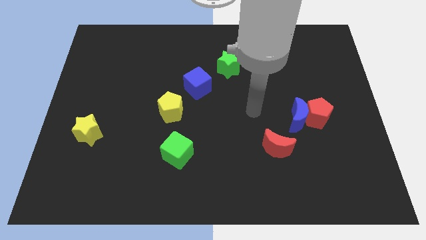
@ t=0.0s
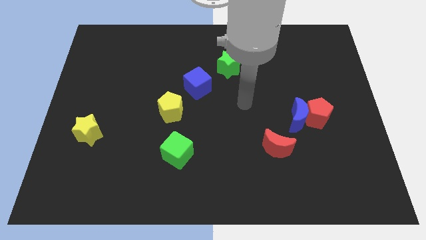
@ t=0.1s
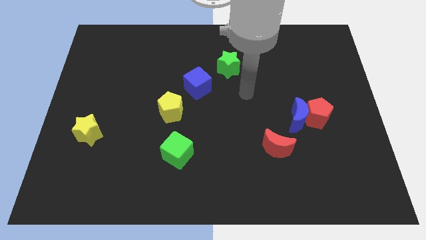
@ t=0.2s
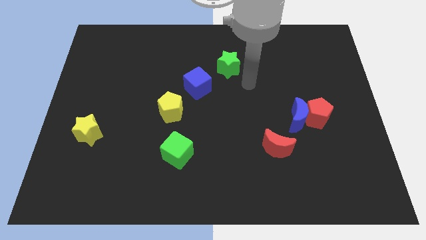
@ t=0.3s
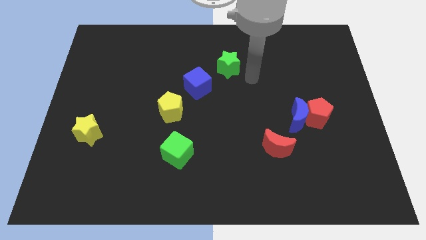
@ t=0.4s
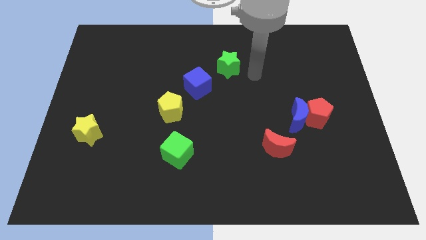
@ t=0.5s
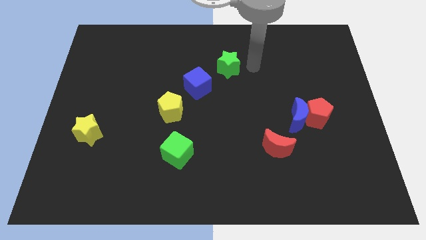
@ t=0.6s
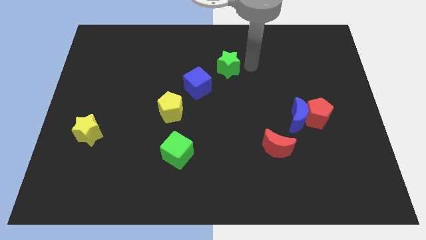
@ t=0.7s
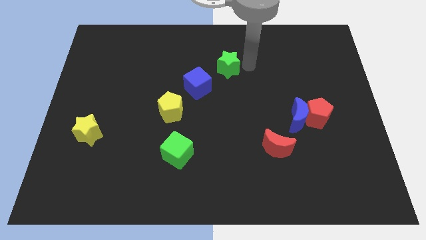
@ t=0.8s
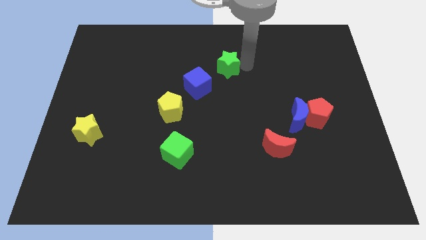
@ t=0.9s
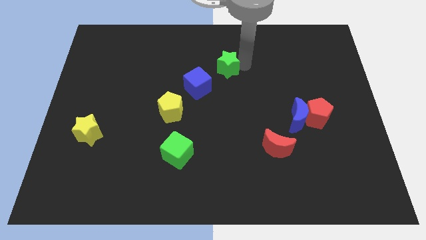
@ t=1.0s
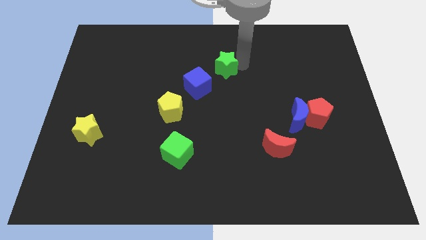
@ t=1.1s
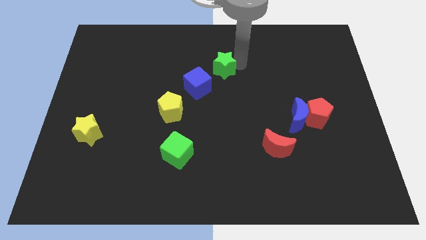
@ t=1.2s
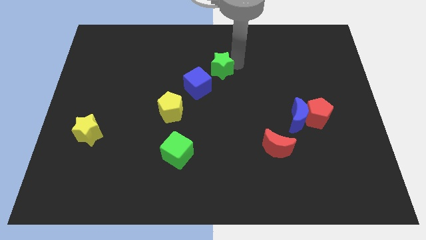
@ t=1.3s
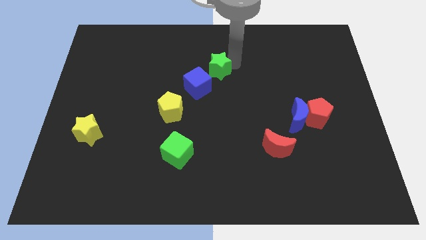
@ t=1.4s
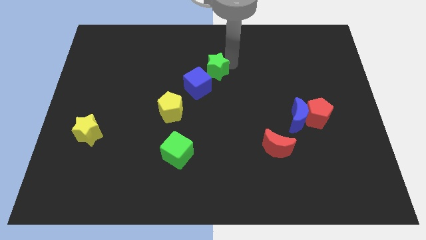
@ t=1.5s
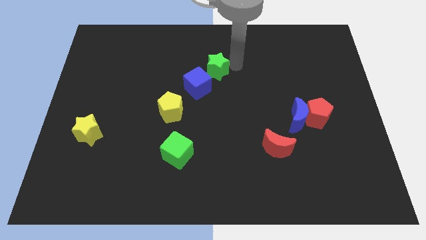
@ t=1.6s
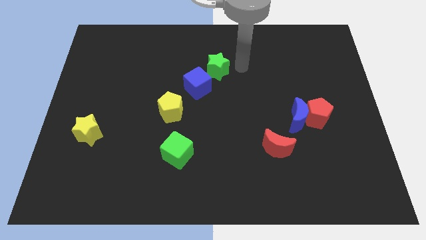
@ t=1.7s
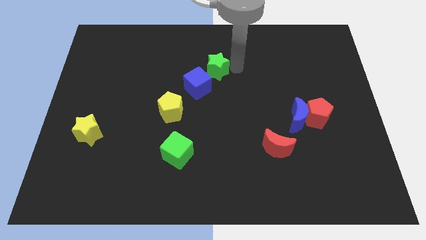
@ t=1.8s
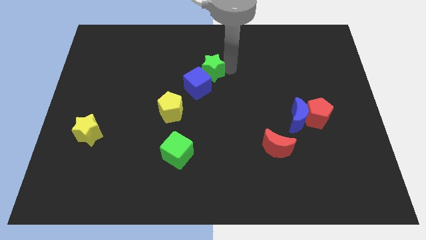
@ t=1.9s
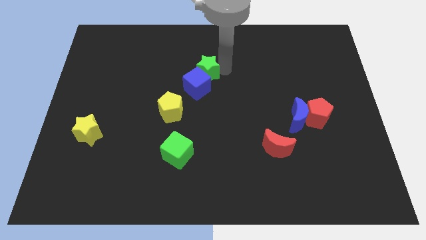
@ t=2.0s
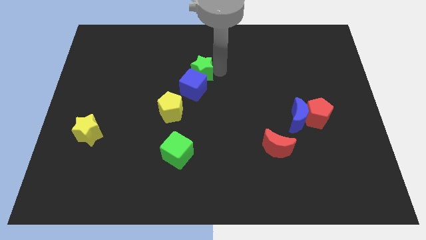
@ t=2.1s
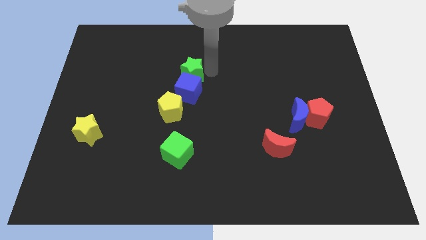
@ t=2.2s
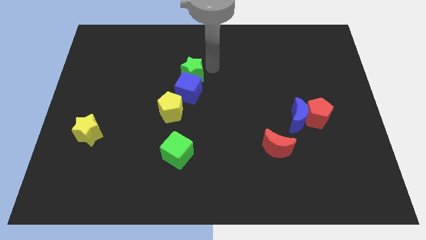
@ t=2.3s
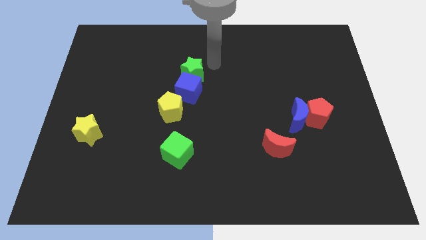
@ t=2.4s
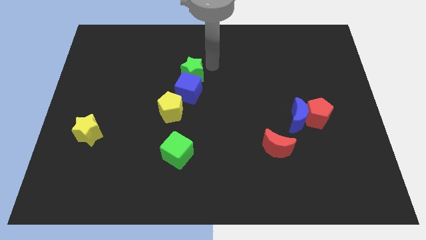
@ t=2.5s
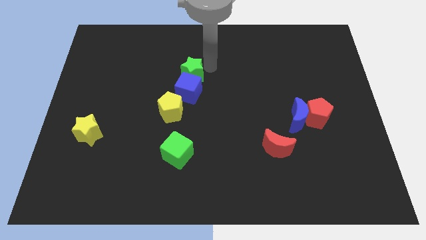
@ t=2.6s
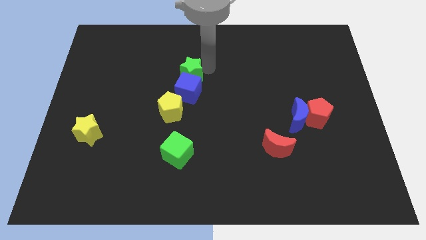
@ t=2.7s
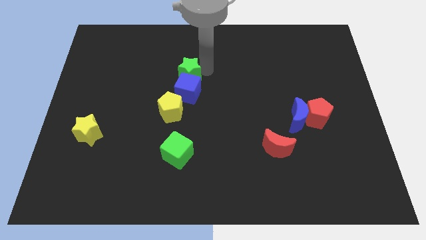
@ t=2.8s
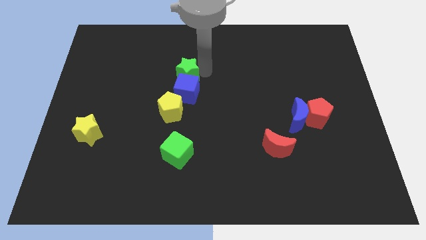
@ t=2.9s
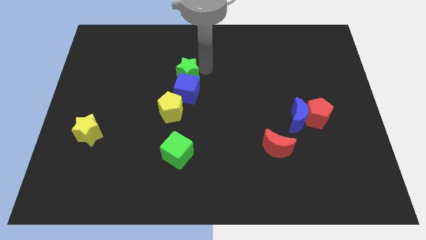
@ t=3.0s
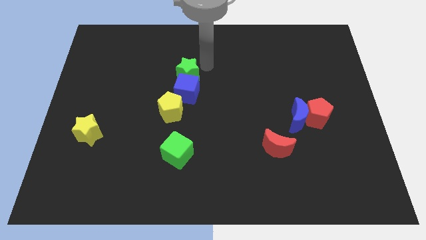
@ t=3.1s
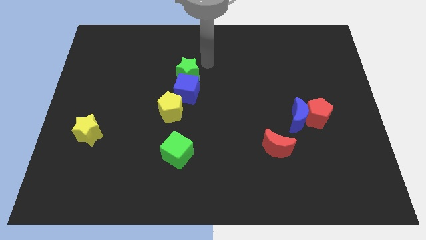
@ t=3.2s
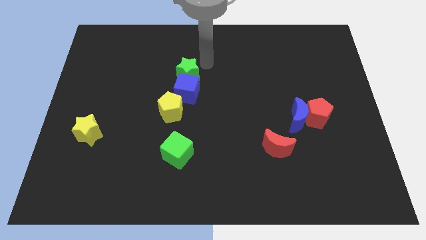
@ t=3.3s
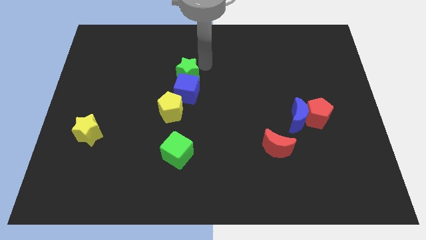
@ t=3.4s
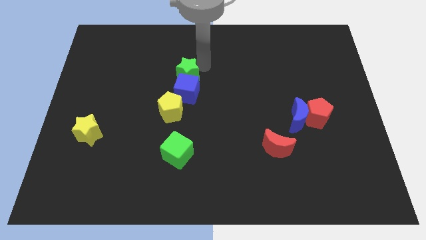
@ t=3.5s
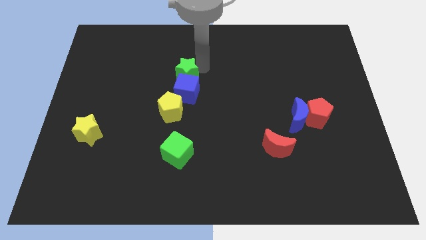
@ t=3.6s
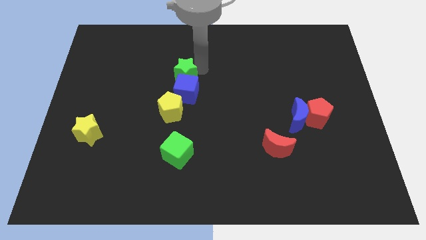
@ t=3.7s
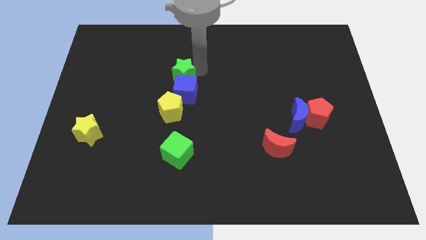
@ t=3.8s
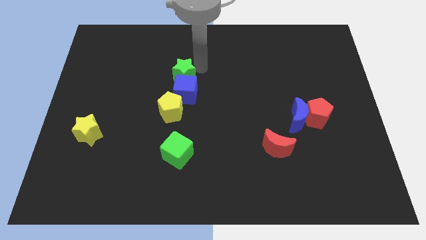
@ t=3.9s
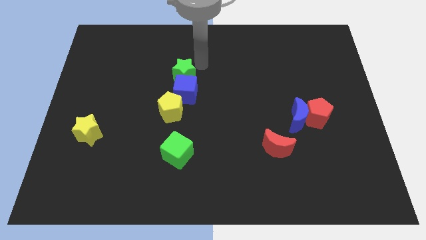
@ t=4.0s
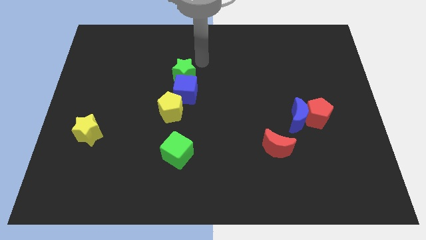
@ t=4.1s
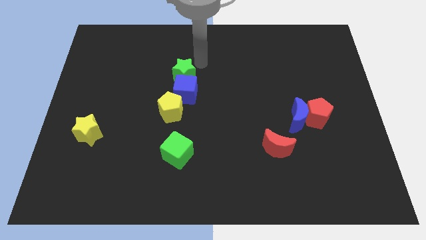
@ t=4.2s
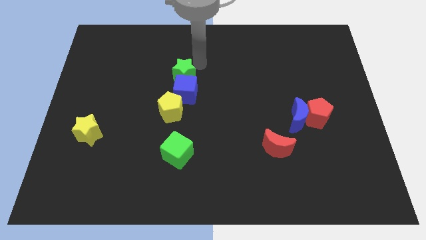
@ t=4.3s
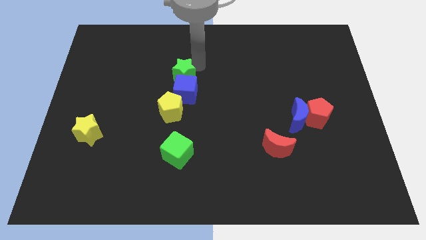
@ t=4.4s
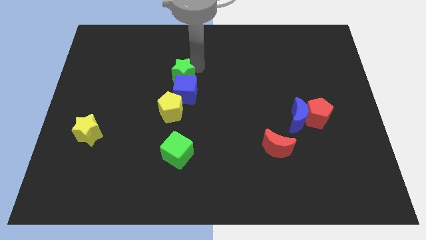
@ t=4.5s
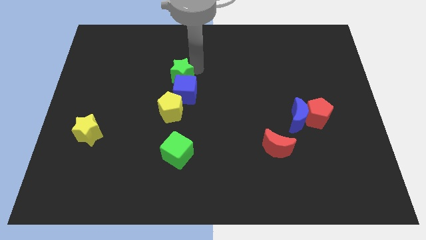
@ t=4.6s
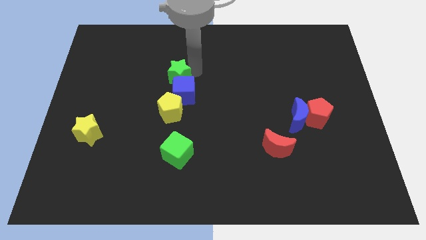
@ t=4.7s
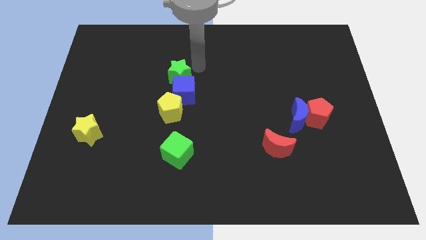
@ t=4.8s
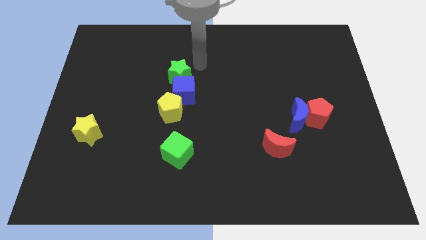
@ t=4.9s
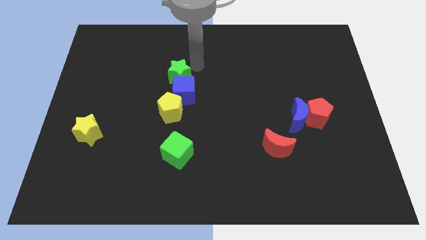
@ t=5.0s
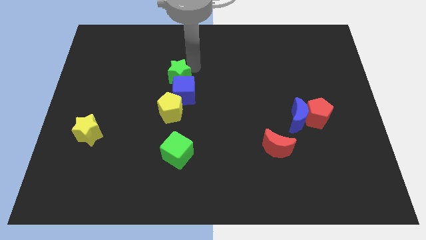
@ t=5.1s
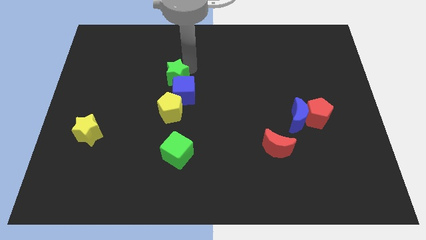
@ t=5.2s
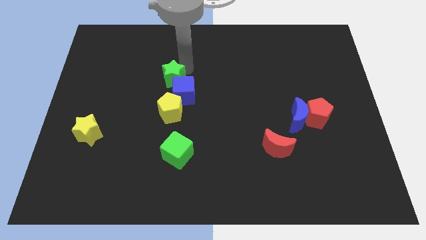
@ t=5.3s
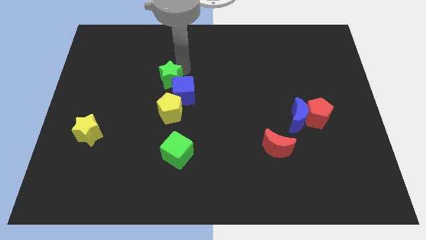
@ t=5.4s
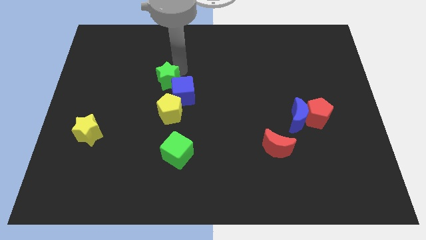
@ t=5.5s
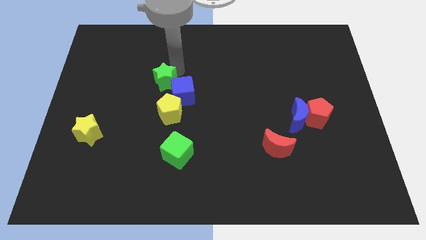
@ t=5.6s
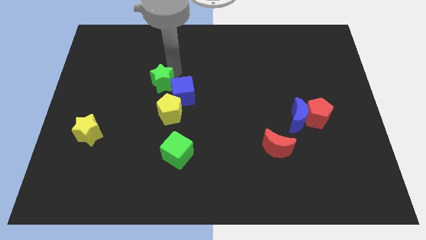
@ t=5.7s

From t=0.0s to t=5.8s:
move the green star to the top left side of the yellow pentagon

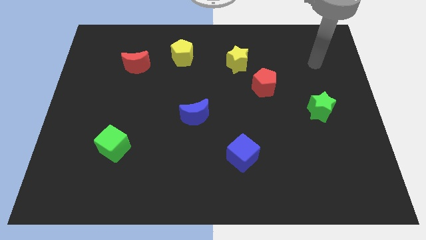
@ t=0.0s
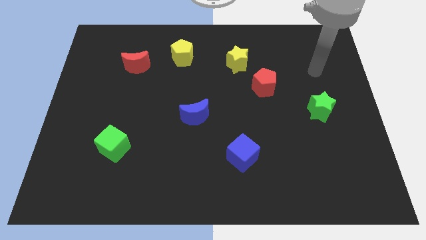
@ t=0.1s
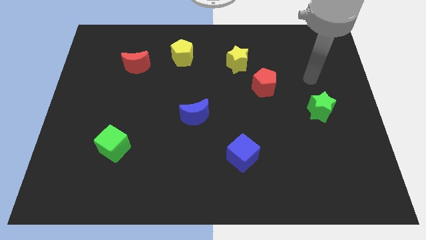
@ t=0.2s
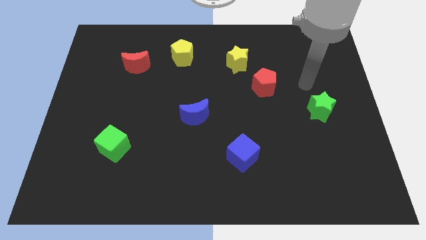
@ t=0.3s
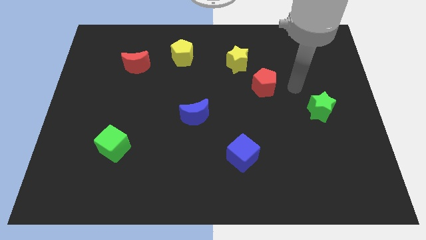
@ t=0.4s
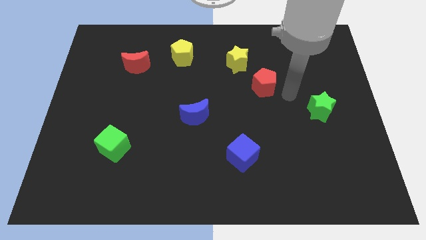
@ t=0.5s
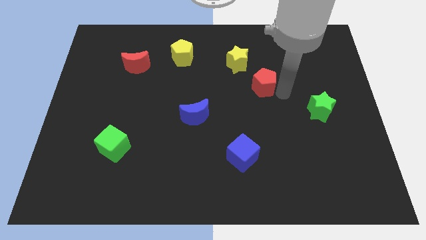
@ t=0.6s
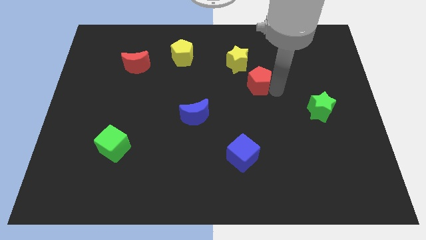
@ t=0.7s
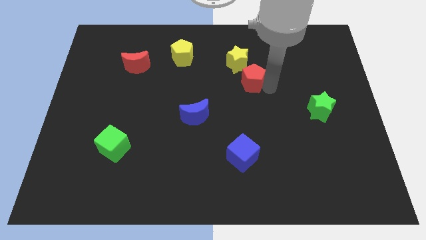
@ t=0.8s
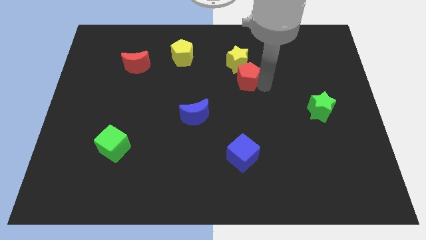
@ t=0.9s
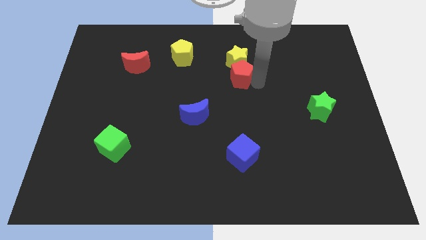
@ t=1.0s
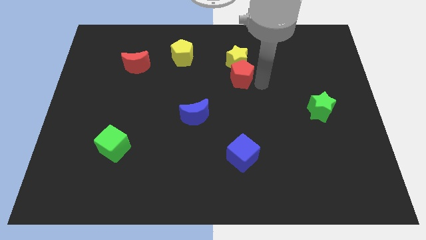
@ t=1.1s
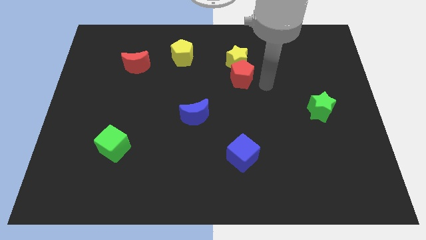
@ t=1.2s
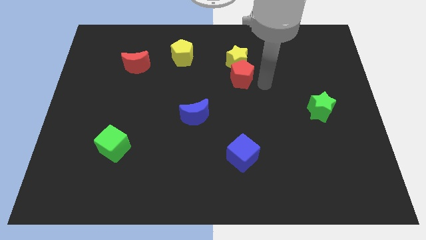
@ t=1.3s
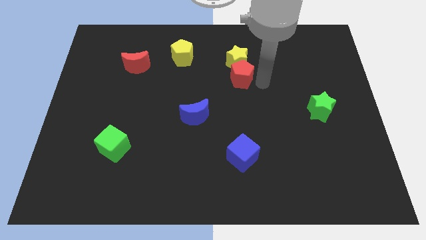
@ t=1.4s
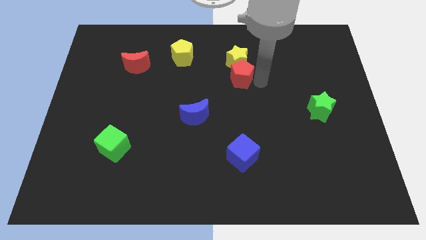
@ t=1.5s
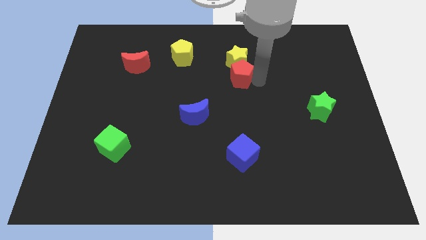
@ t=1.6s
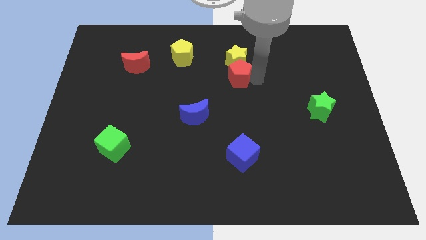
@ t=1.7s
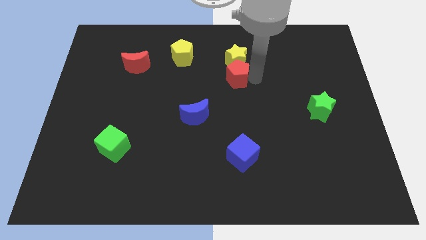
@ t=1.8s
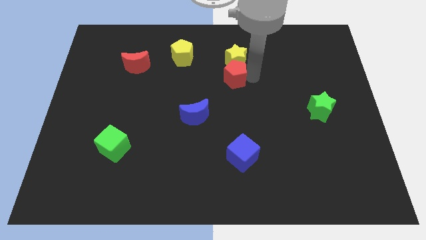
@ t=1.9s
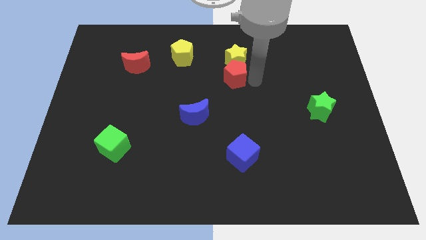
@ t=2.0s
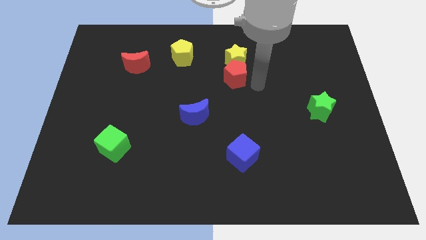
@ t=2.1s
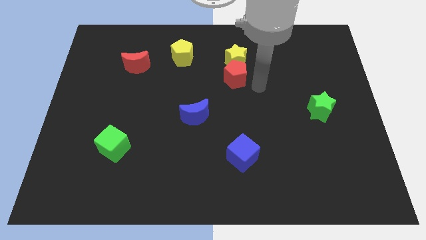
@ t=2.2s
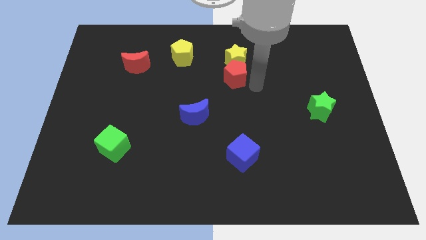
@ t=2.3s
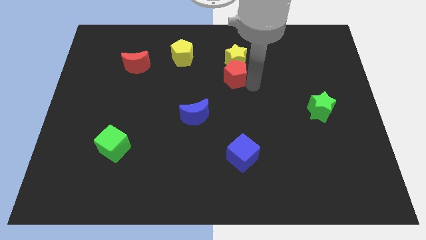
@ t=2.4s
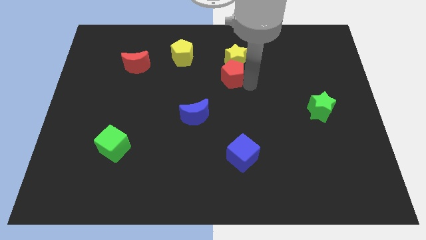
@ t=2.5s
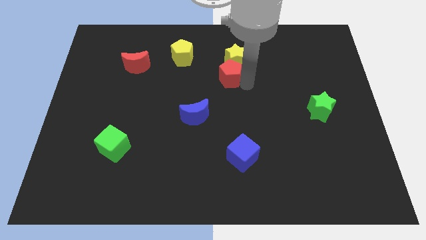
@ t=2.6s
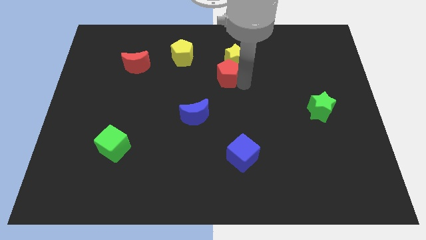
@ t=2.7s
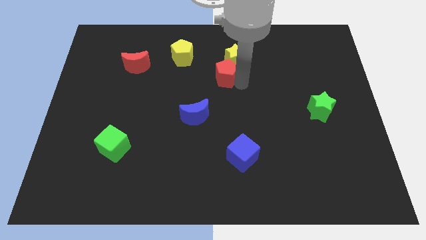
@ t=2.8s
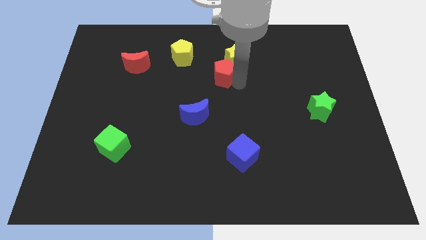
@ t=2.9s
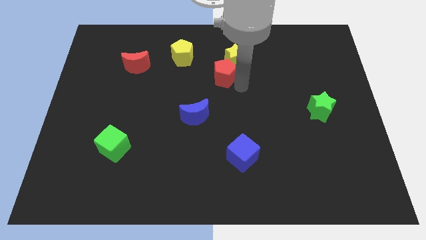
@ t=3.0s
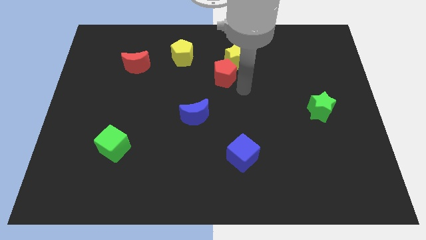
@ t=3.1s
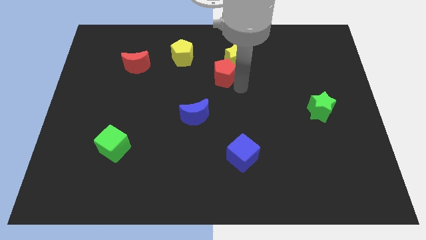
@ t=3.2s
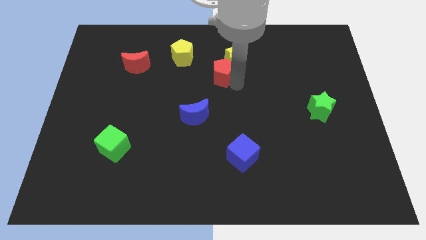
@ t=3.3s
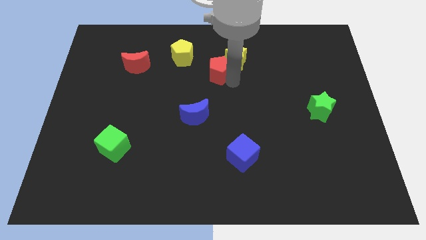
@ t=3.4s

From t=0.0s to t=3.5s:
push the red pentagon just left of the yellow star
